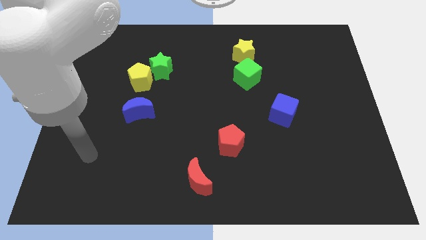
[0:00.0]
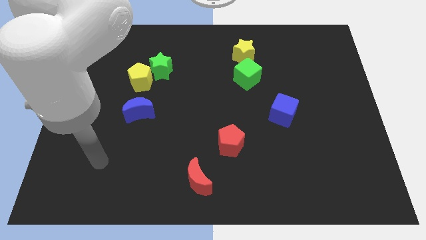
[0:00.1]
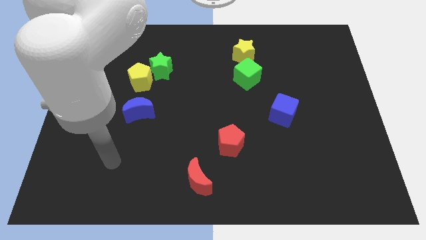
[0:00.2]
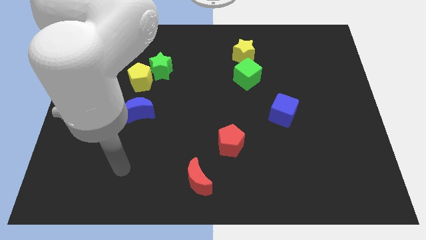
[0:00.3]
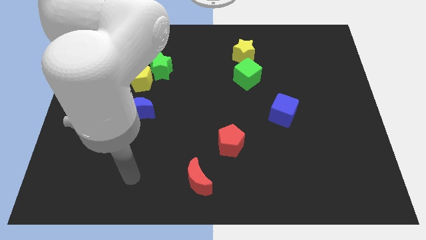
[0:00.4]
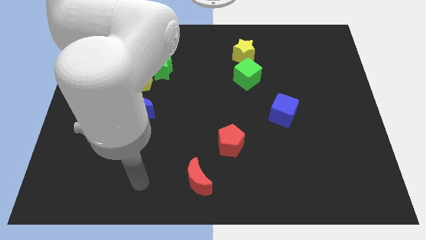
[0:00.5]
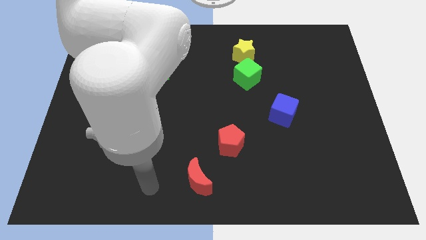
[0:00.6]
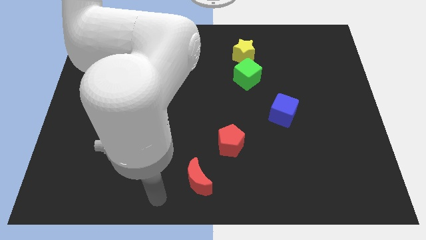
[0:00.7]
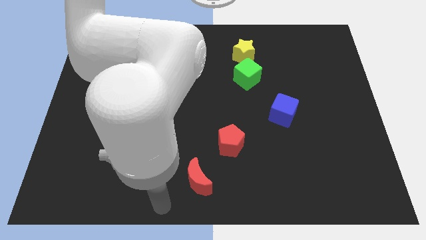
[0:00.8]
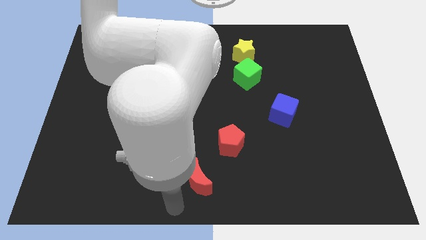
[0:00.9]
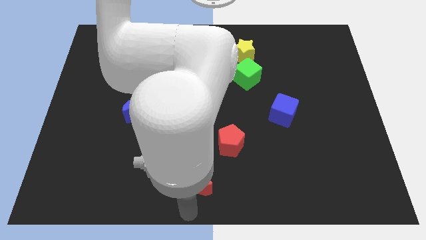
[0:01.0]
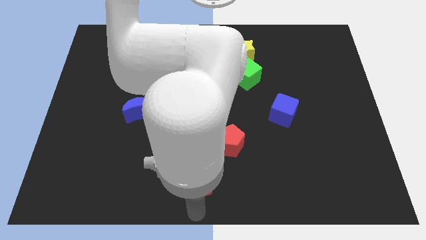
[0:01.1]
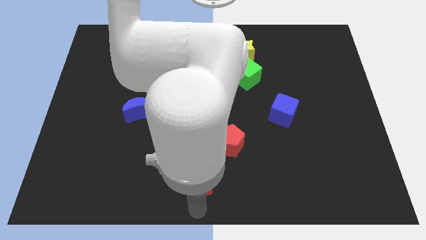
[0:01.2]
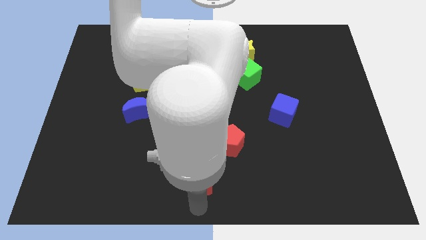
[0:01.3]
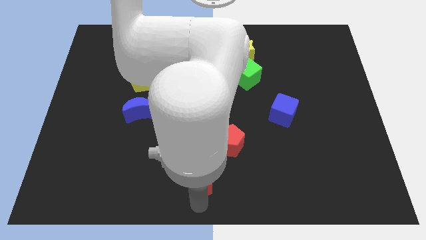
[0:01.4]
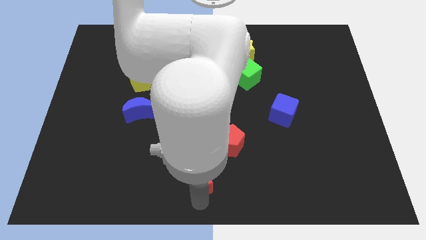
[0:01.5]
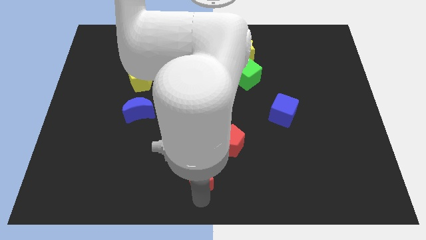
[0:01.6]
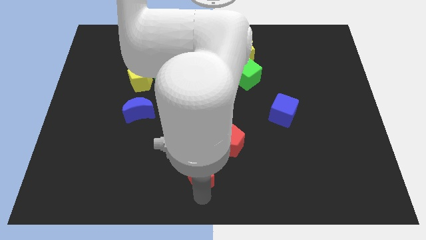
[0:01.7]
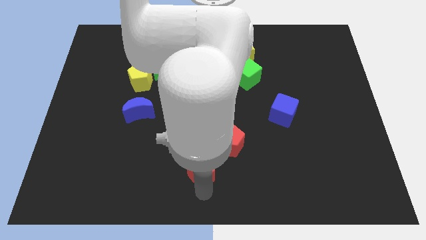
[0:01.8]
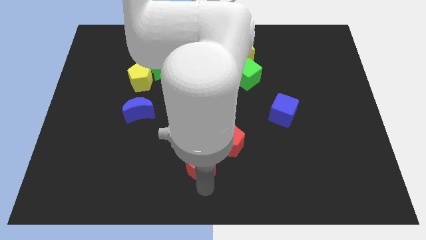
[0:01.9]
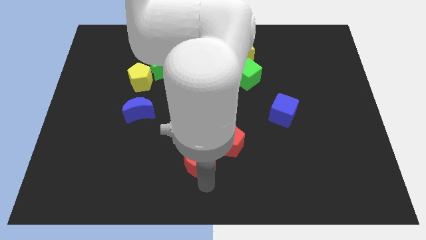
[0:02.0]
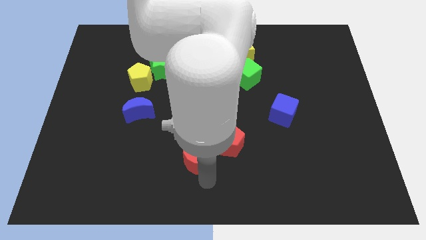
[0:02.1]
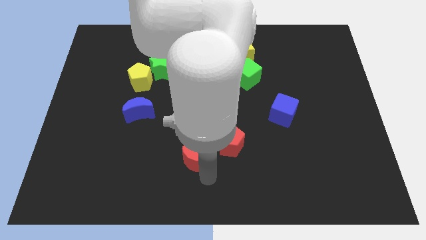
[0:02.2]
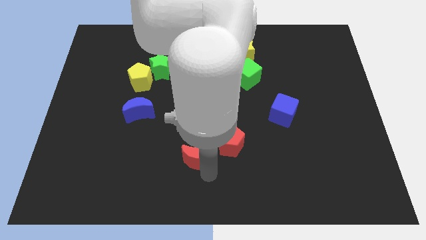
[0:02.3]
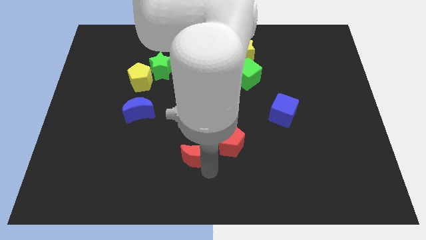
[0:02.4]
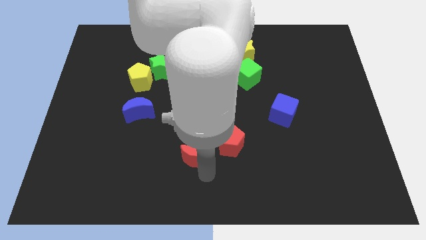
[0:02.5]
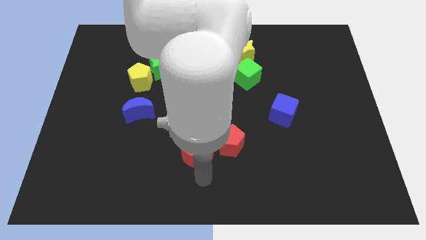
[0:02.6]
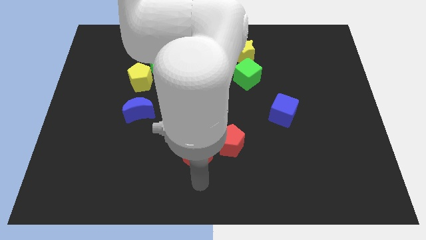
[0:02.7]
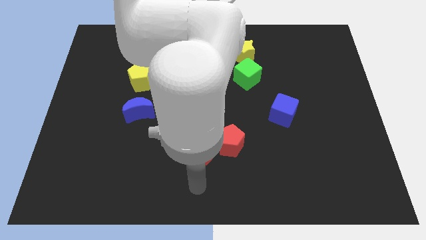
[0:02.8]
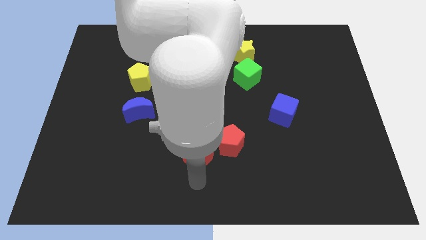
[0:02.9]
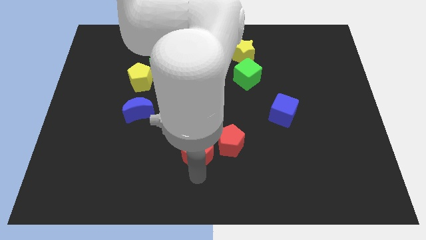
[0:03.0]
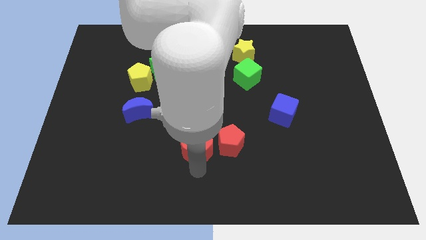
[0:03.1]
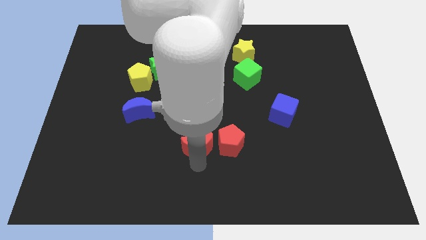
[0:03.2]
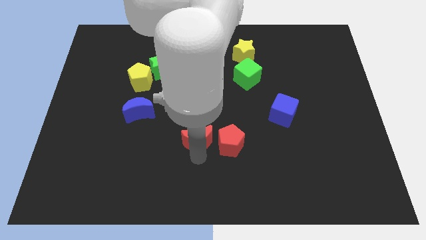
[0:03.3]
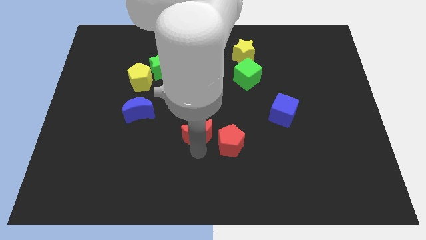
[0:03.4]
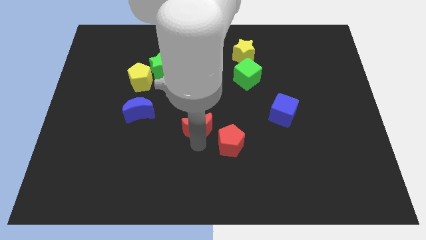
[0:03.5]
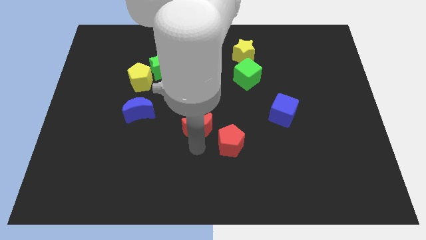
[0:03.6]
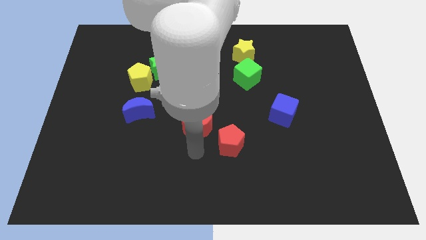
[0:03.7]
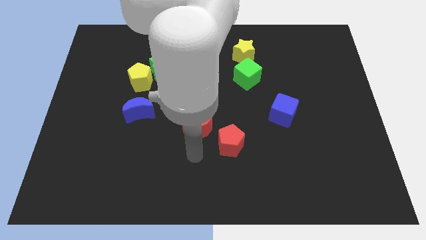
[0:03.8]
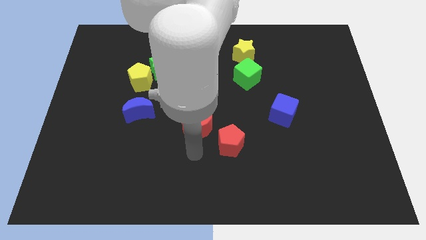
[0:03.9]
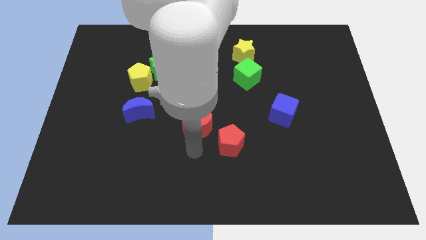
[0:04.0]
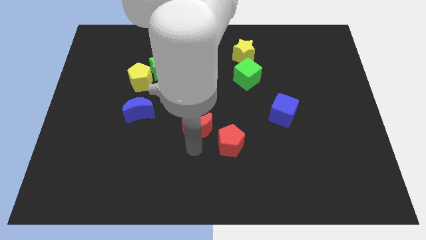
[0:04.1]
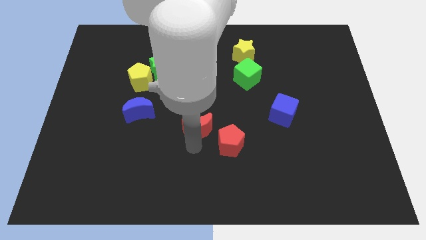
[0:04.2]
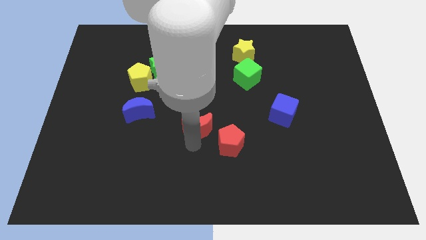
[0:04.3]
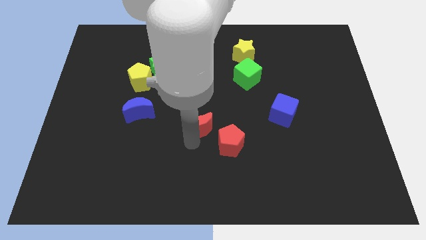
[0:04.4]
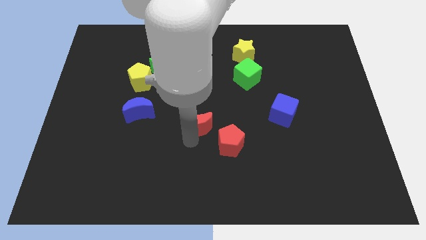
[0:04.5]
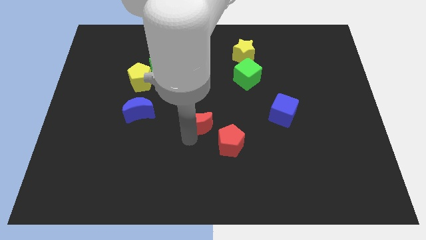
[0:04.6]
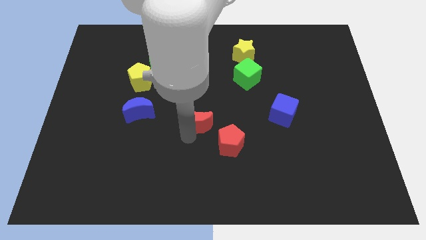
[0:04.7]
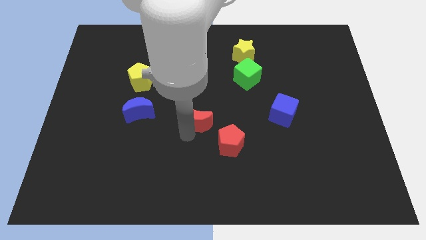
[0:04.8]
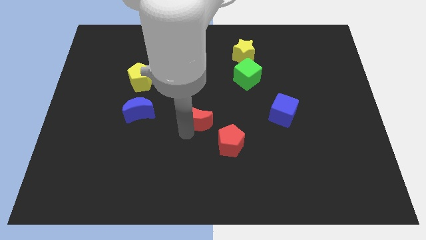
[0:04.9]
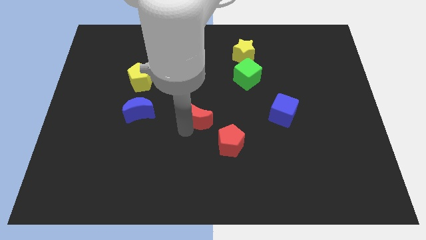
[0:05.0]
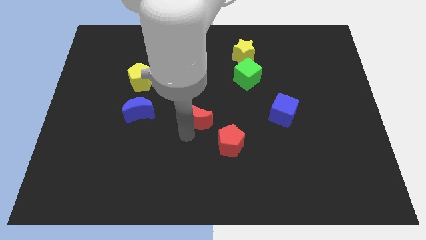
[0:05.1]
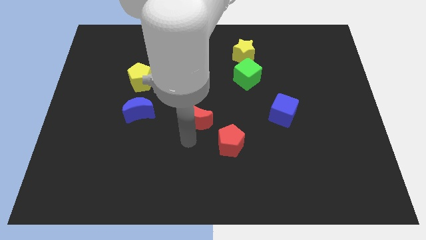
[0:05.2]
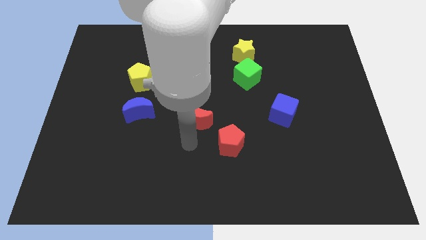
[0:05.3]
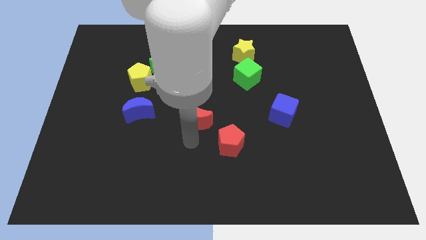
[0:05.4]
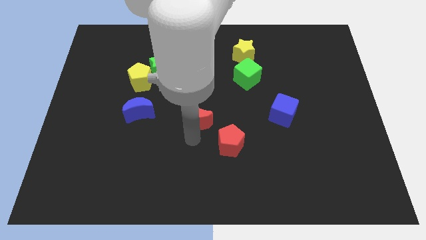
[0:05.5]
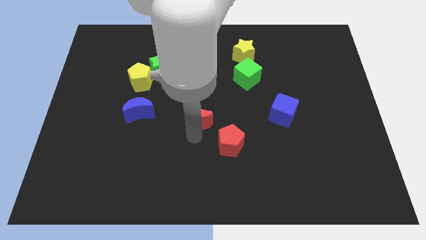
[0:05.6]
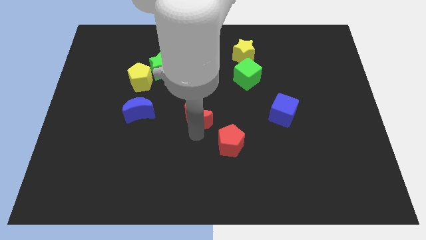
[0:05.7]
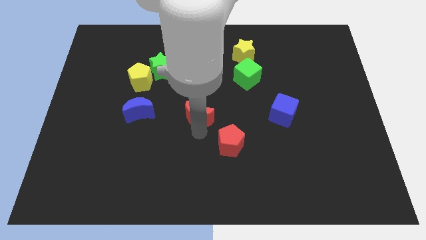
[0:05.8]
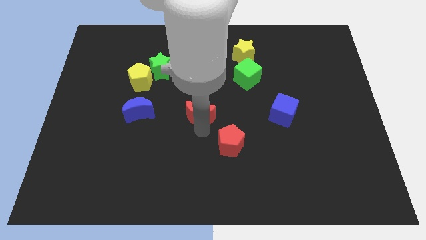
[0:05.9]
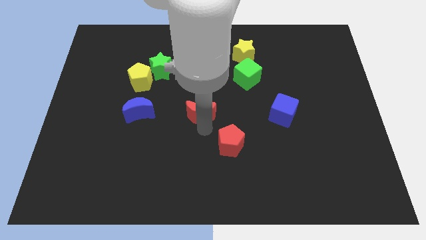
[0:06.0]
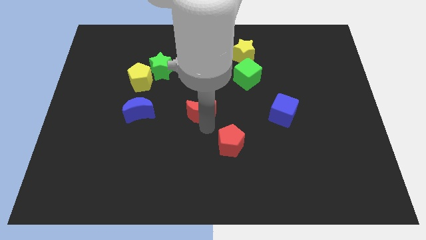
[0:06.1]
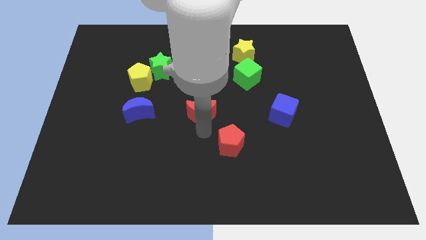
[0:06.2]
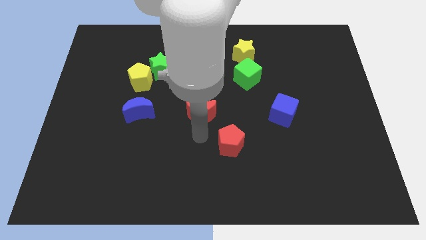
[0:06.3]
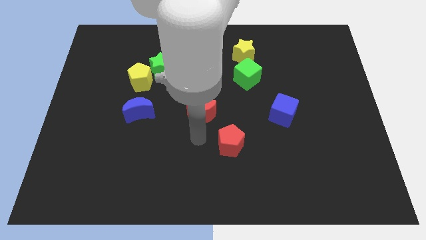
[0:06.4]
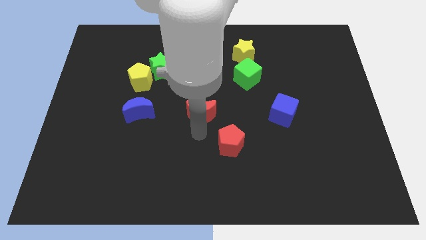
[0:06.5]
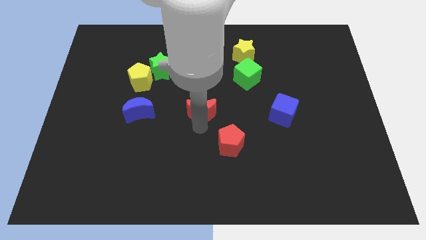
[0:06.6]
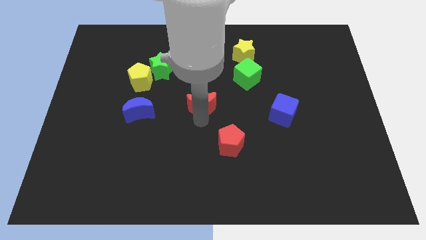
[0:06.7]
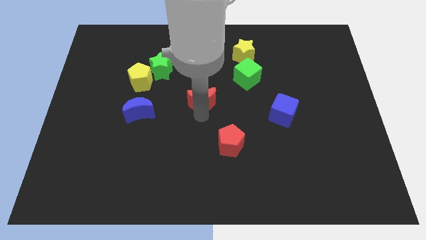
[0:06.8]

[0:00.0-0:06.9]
move the red moon upwards

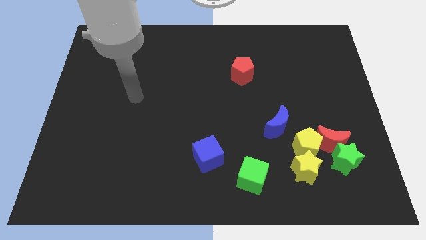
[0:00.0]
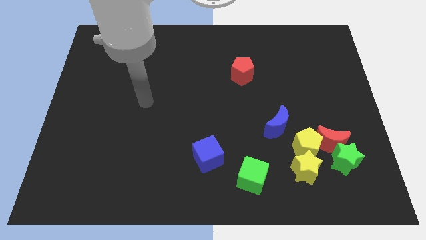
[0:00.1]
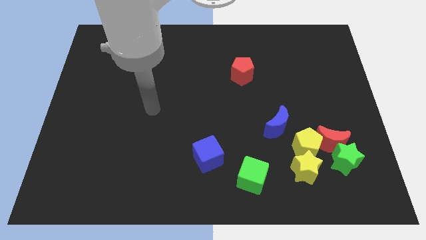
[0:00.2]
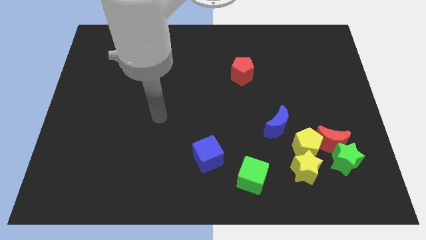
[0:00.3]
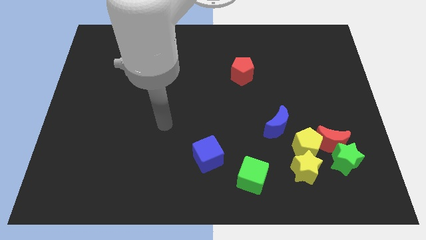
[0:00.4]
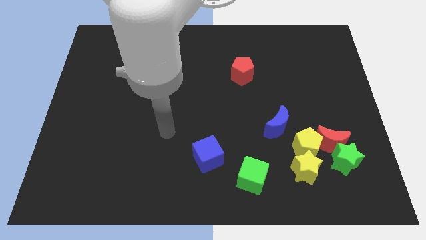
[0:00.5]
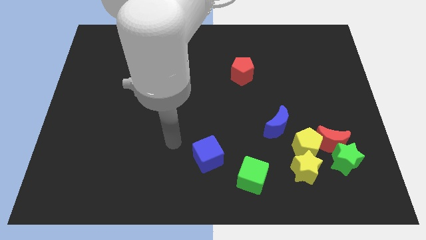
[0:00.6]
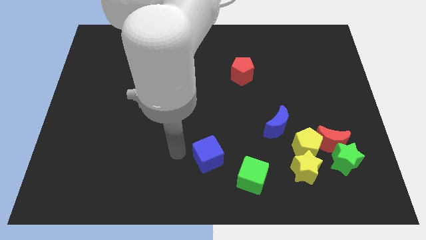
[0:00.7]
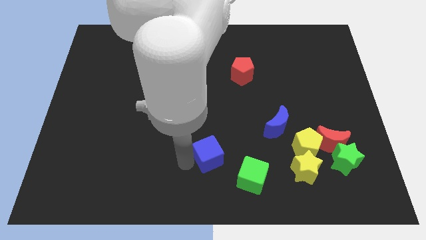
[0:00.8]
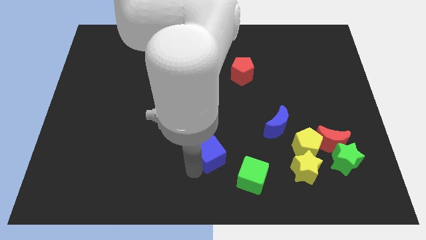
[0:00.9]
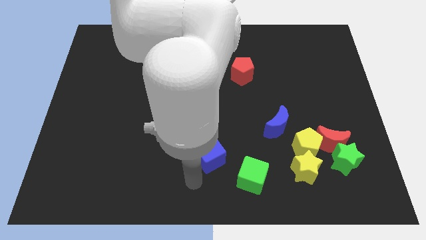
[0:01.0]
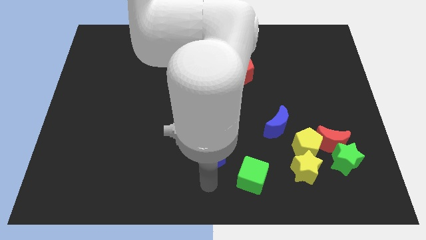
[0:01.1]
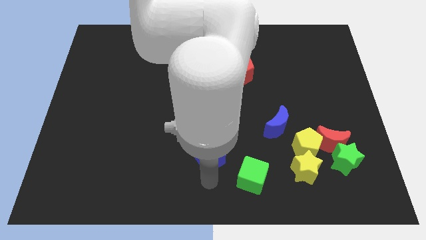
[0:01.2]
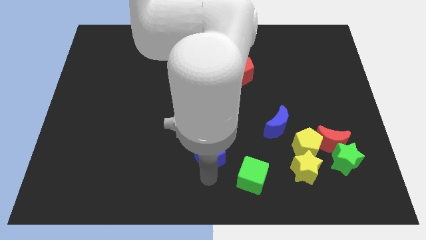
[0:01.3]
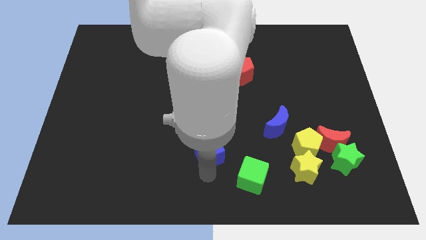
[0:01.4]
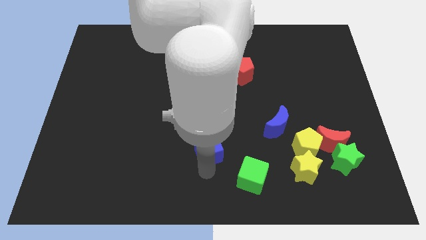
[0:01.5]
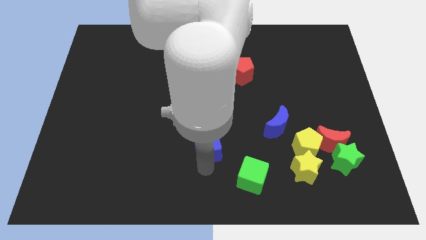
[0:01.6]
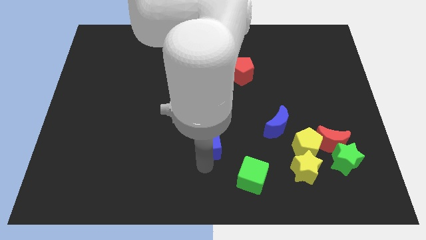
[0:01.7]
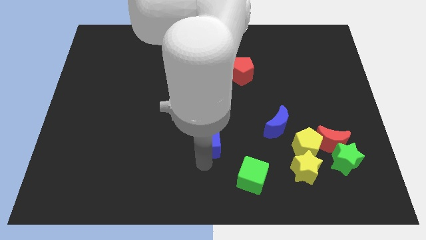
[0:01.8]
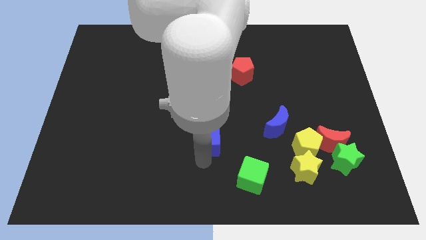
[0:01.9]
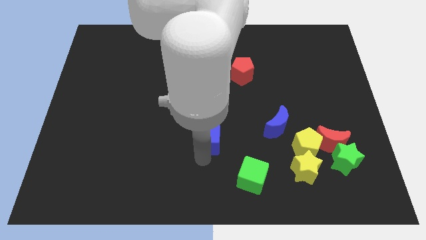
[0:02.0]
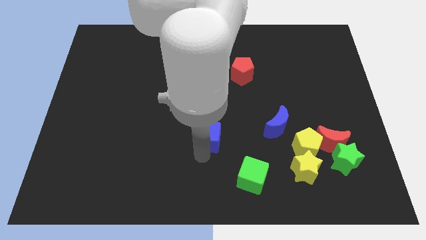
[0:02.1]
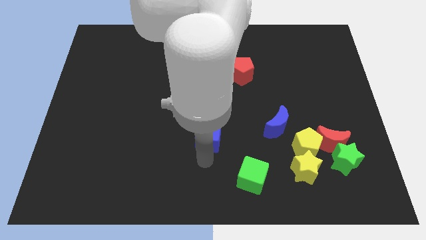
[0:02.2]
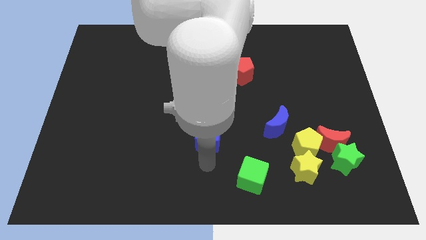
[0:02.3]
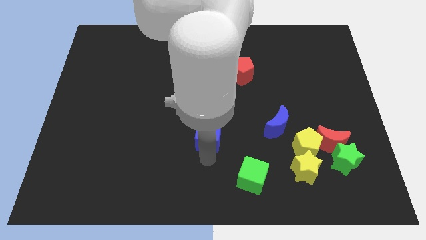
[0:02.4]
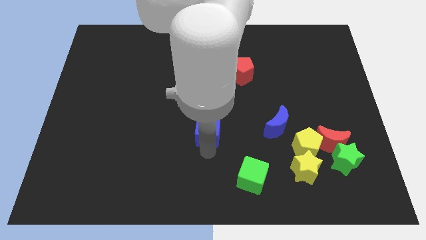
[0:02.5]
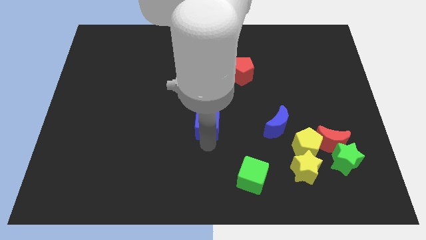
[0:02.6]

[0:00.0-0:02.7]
slightly move the blue cube up
